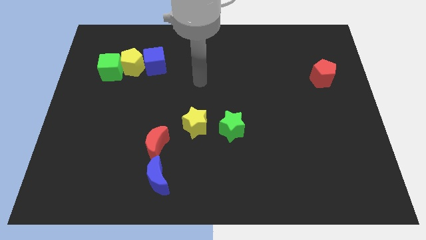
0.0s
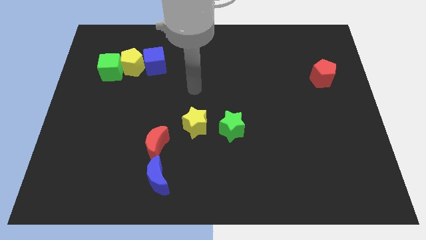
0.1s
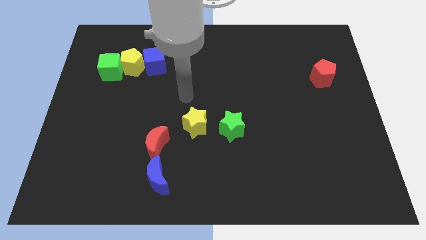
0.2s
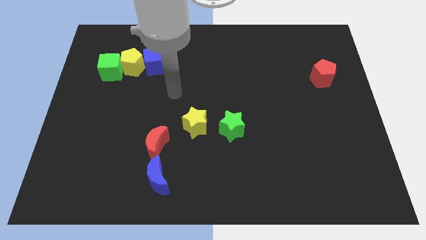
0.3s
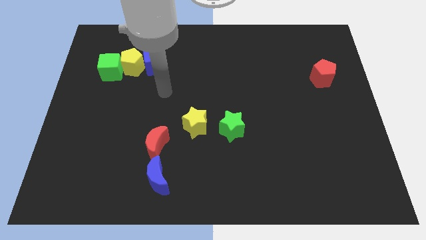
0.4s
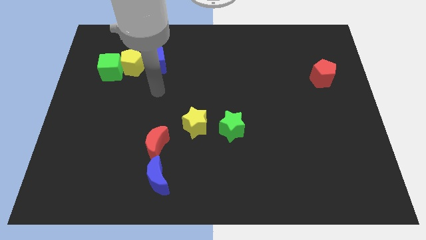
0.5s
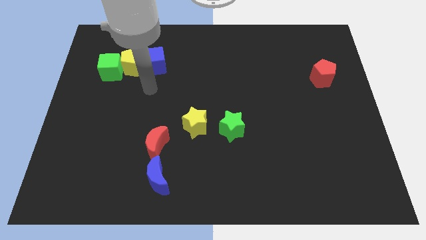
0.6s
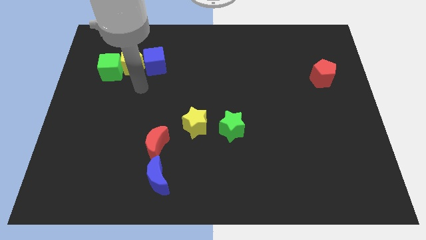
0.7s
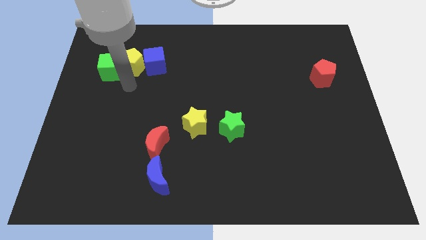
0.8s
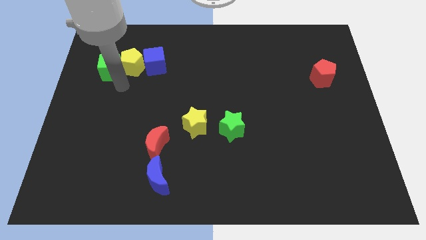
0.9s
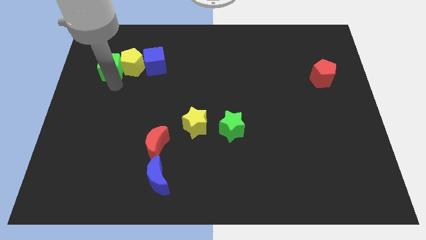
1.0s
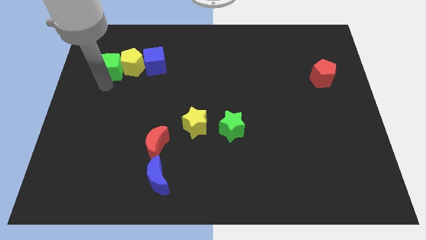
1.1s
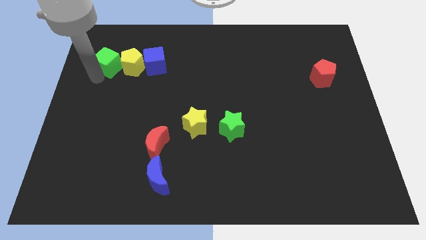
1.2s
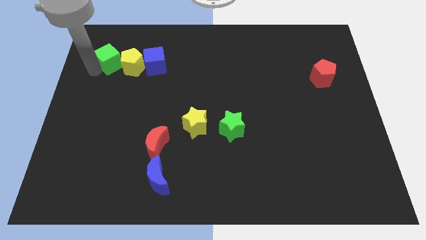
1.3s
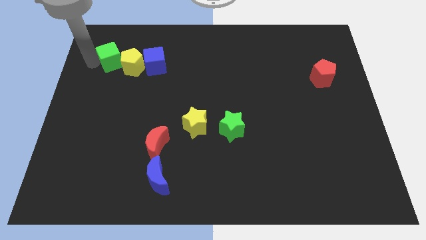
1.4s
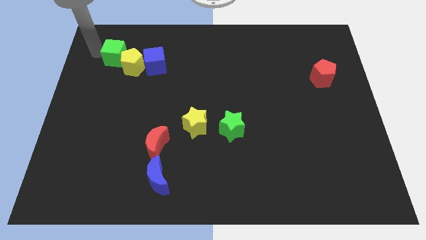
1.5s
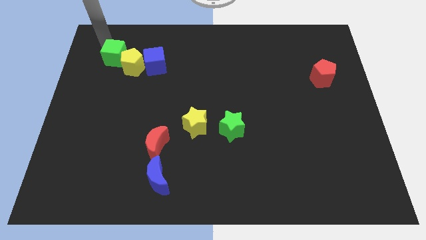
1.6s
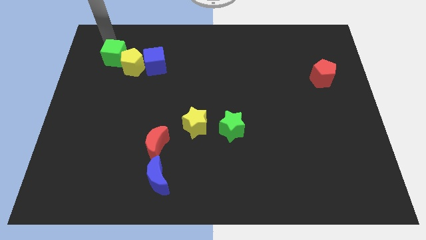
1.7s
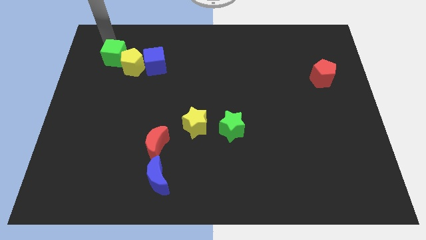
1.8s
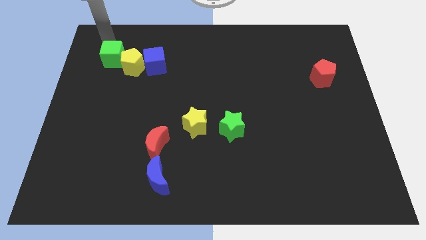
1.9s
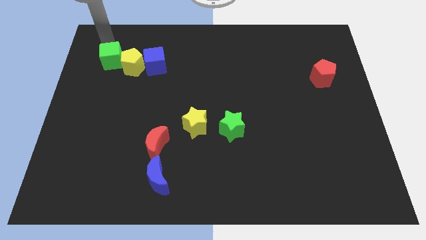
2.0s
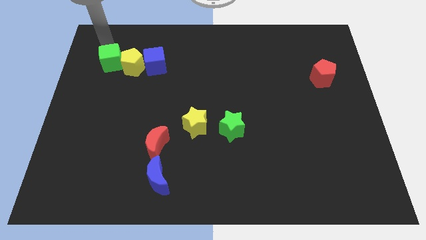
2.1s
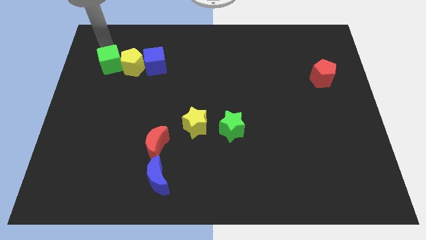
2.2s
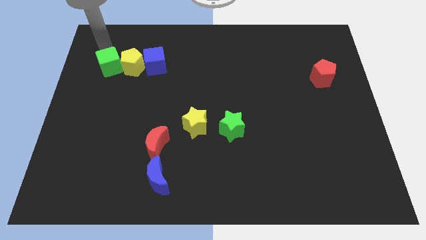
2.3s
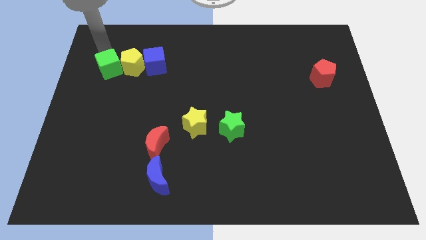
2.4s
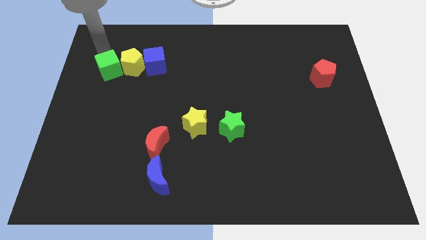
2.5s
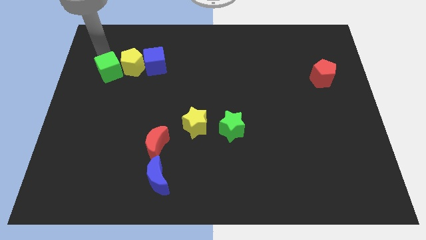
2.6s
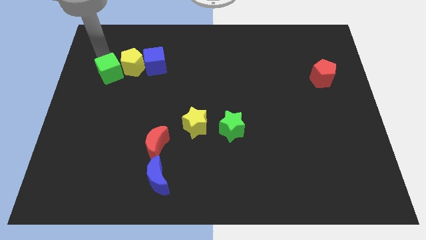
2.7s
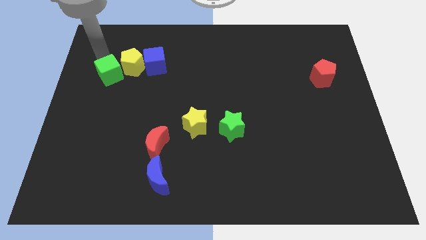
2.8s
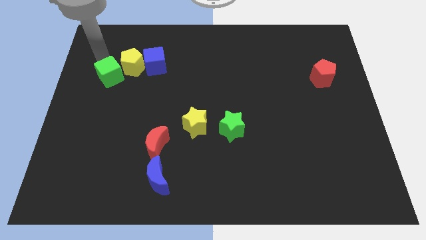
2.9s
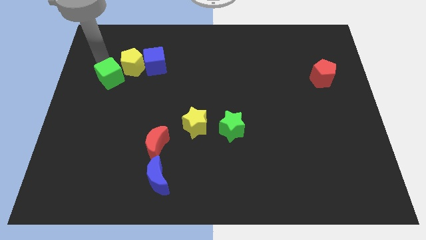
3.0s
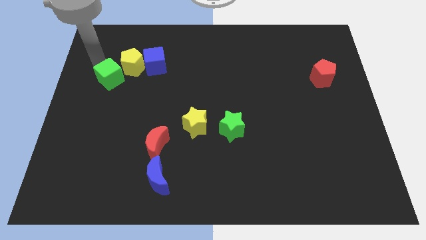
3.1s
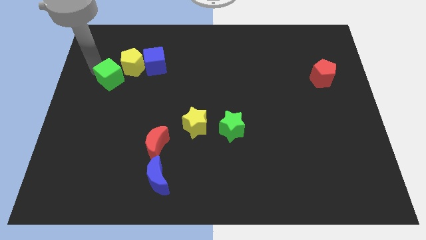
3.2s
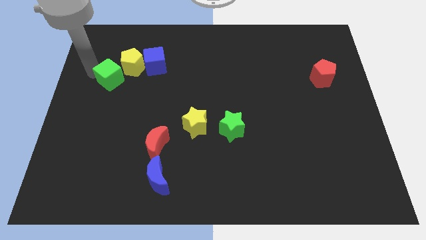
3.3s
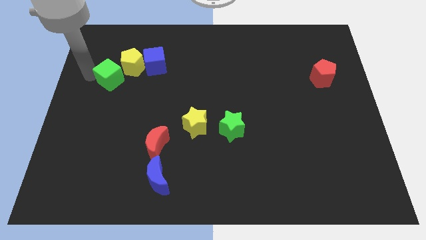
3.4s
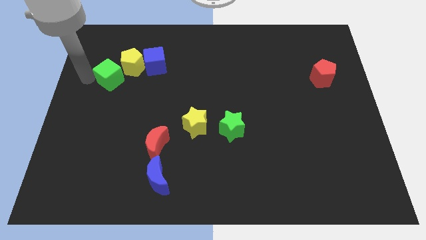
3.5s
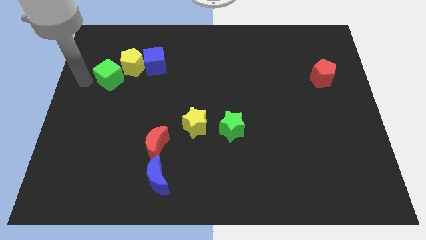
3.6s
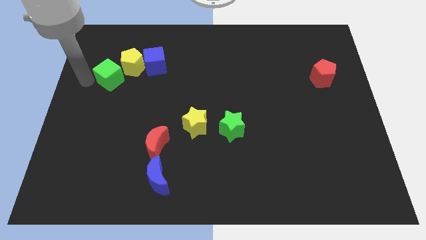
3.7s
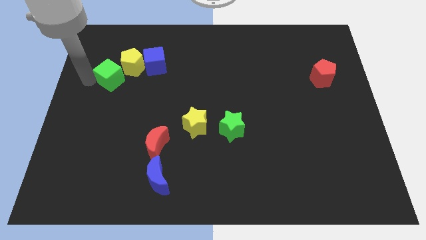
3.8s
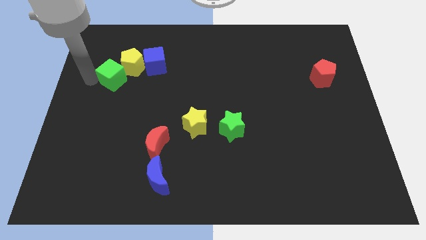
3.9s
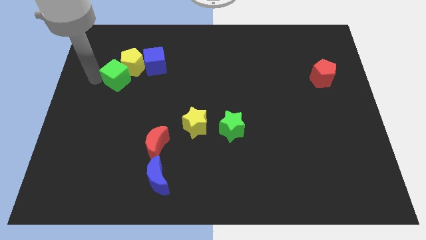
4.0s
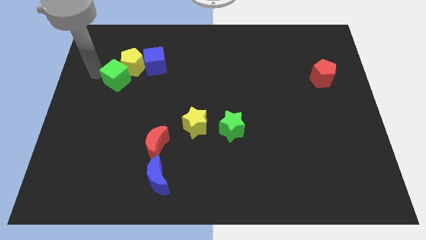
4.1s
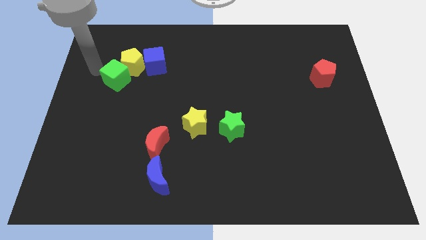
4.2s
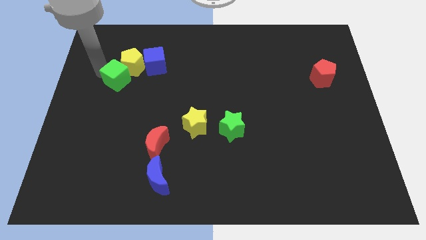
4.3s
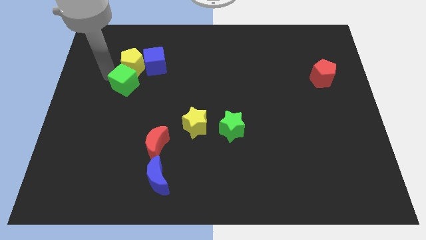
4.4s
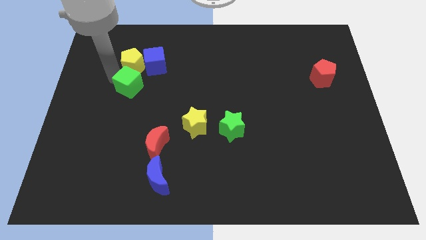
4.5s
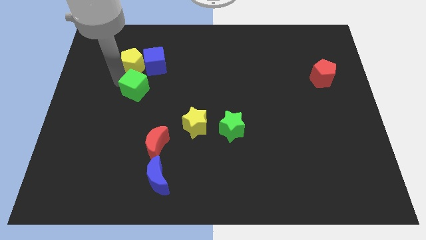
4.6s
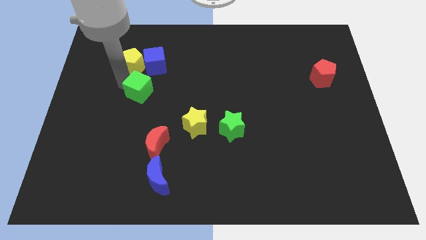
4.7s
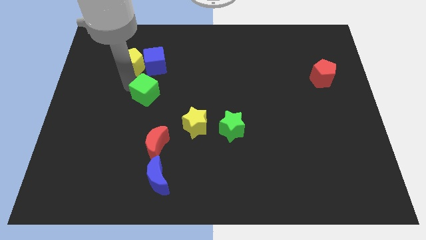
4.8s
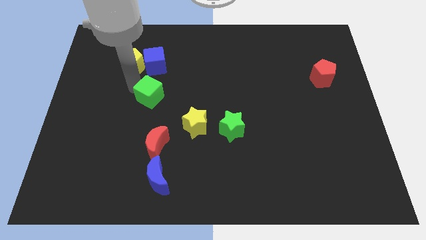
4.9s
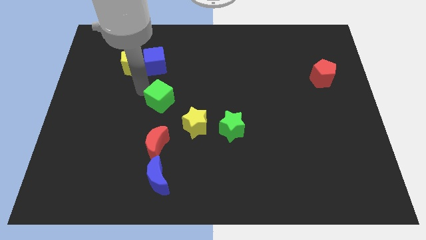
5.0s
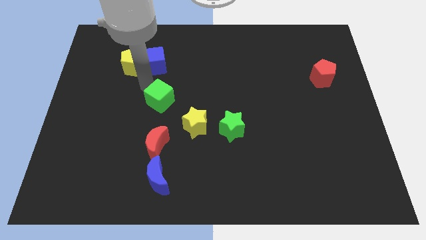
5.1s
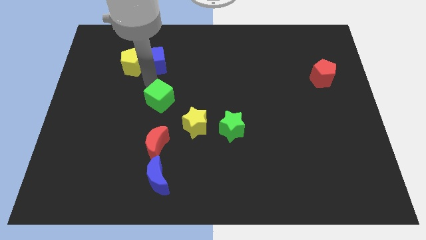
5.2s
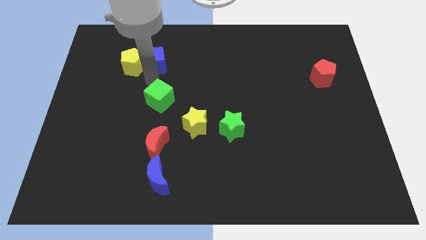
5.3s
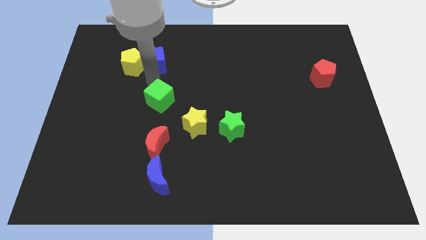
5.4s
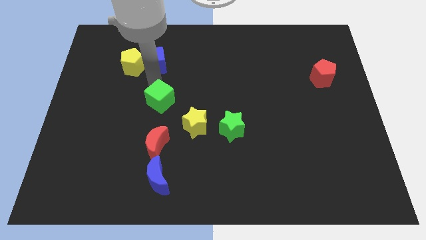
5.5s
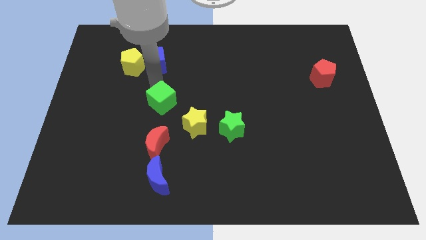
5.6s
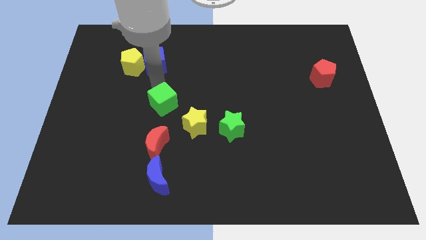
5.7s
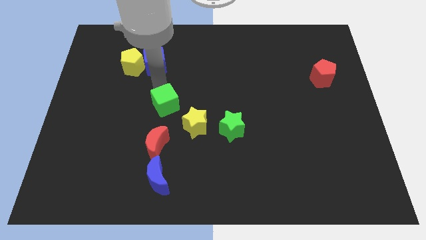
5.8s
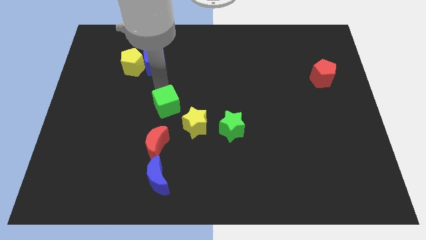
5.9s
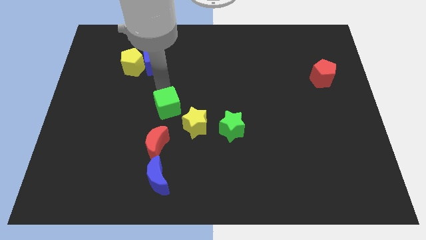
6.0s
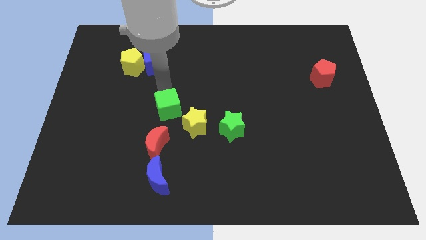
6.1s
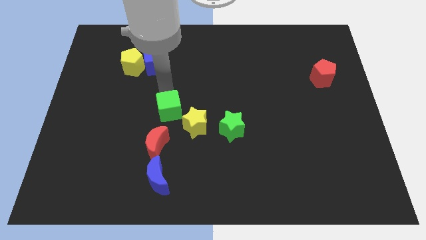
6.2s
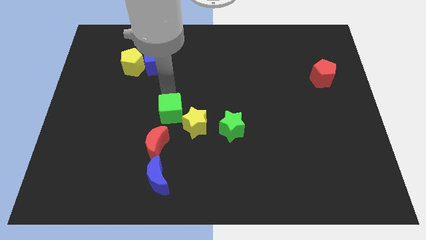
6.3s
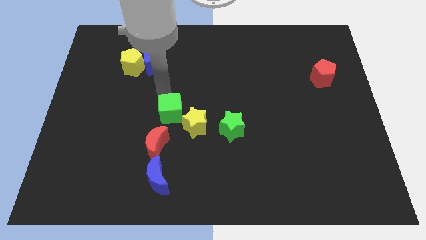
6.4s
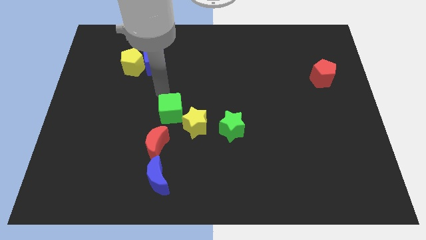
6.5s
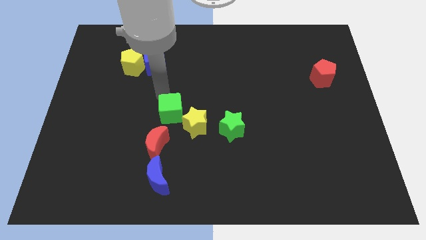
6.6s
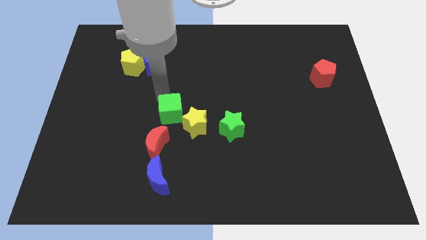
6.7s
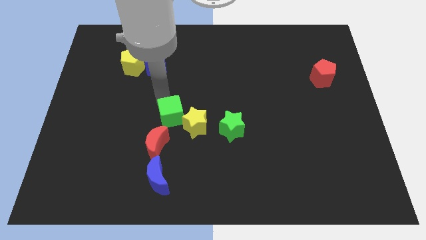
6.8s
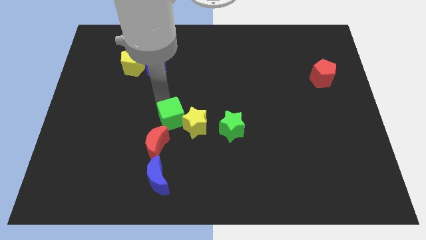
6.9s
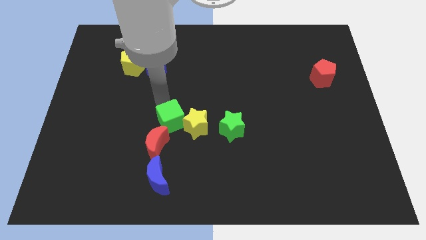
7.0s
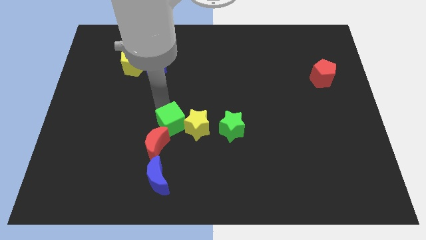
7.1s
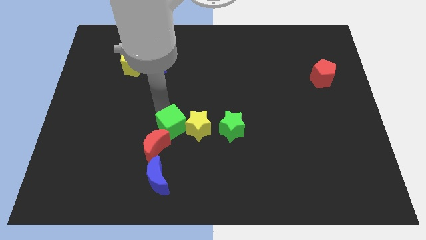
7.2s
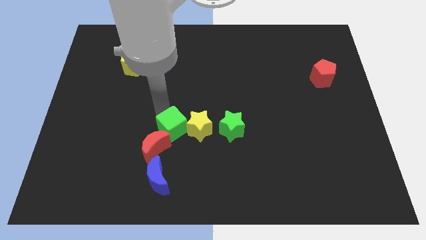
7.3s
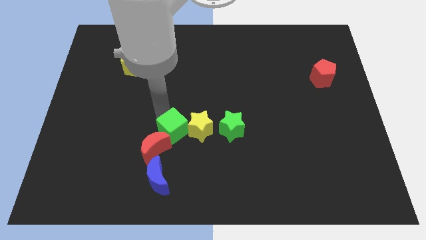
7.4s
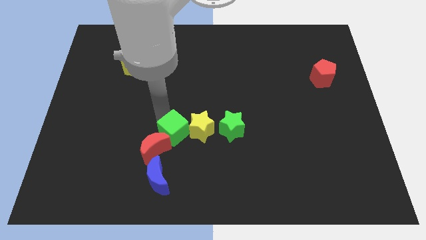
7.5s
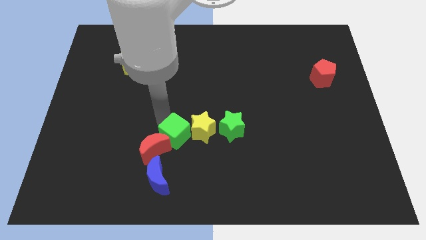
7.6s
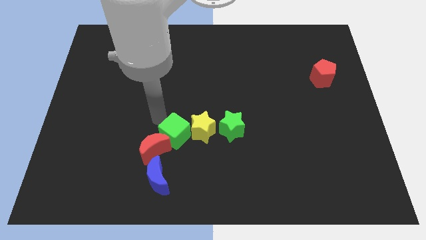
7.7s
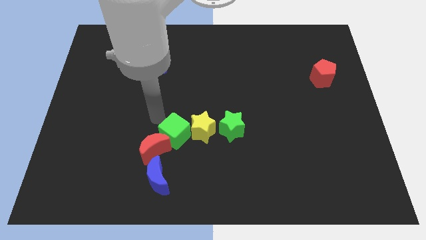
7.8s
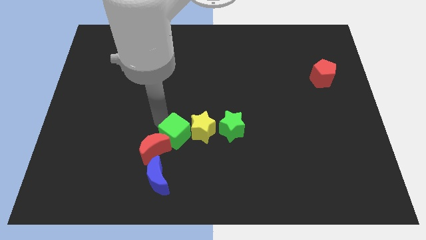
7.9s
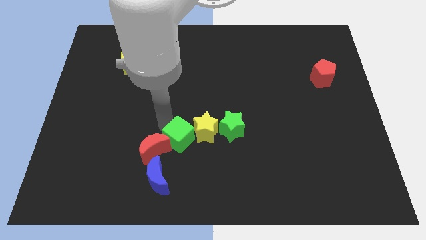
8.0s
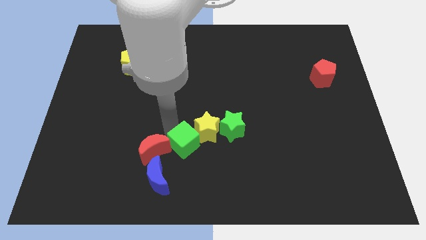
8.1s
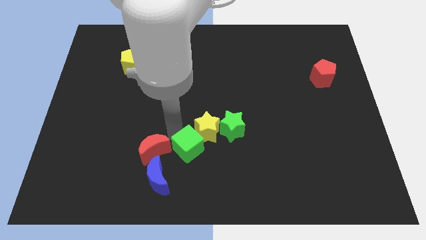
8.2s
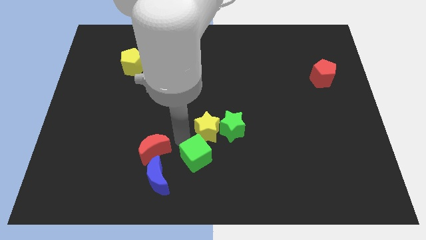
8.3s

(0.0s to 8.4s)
move the green cube to the bottom
